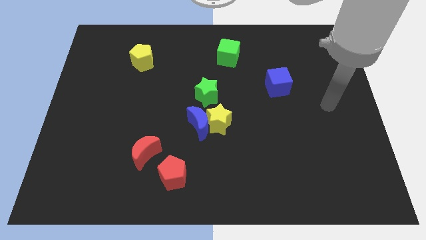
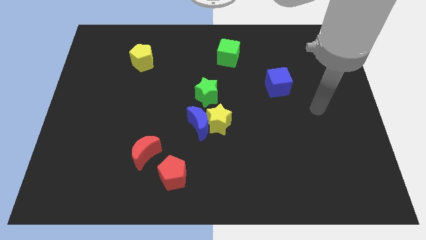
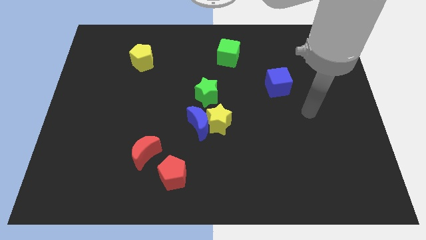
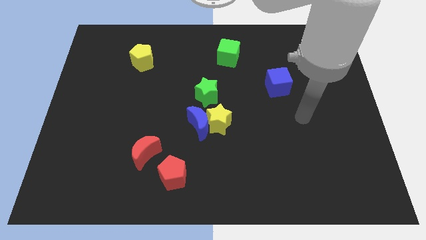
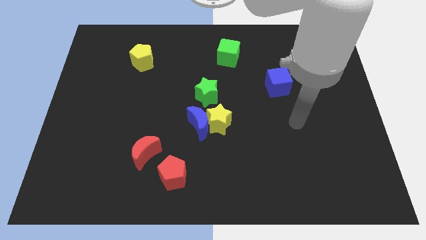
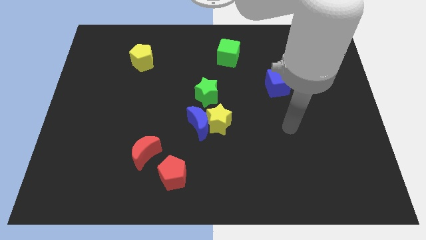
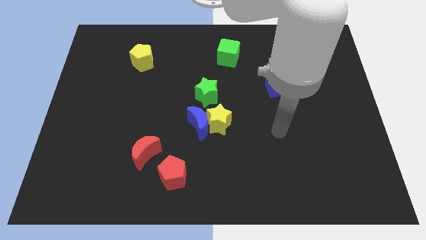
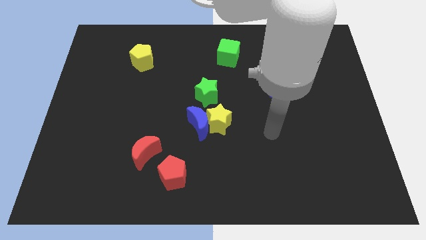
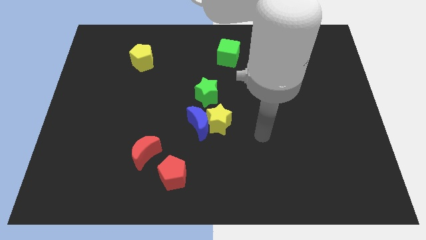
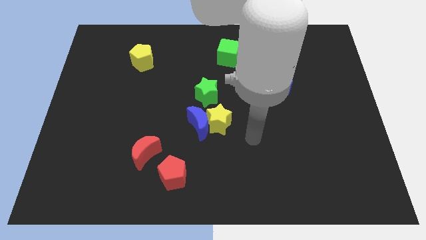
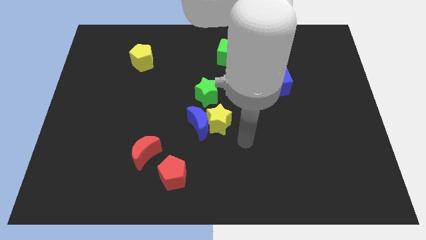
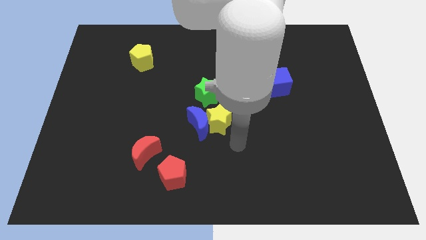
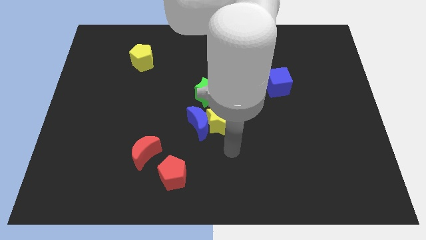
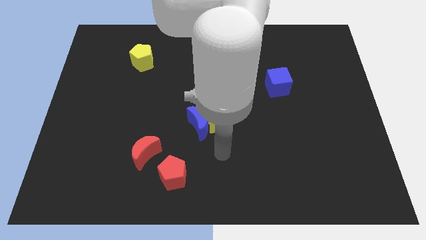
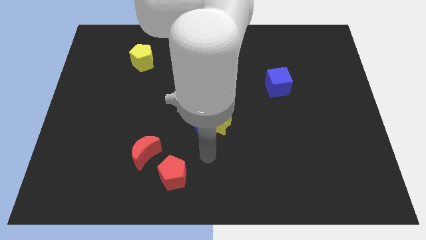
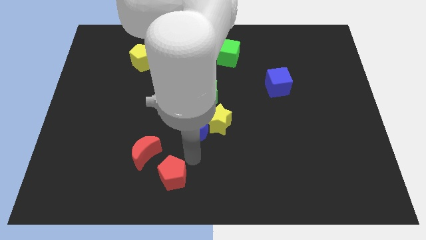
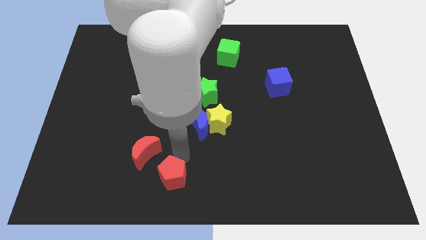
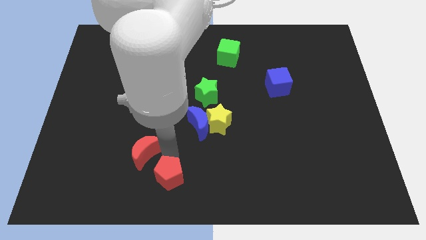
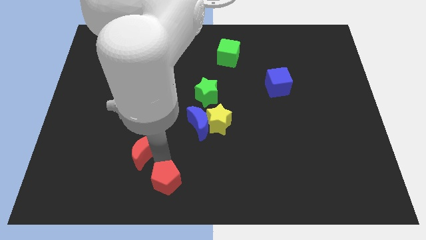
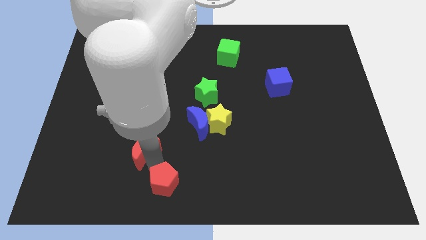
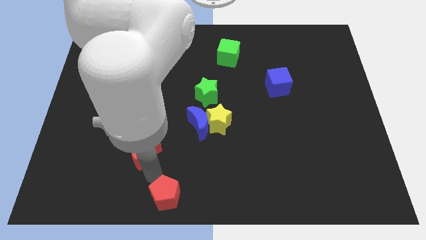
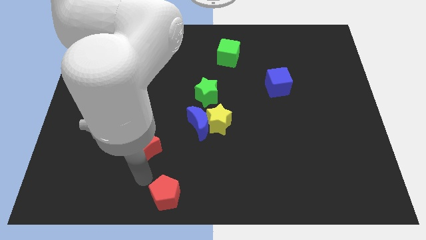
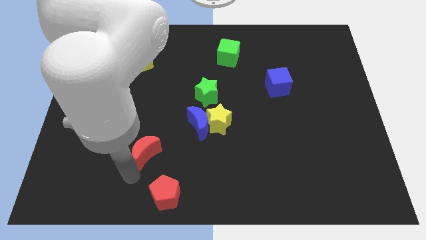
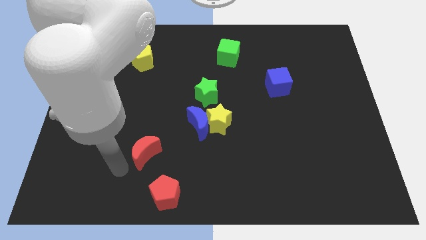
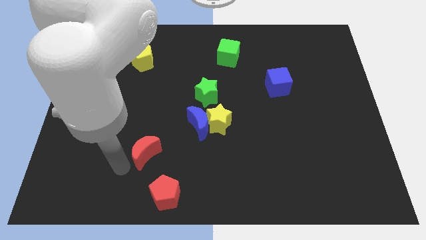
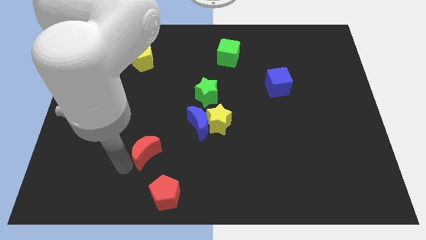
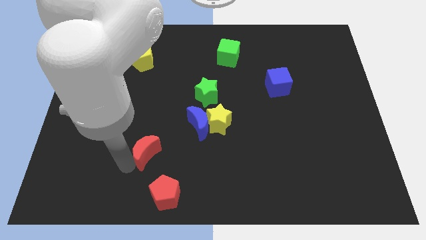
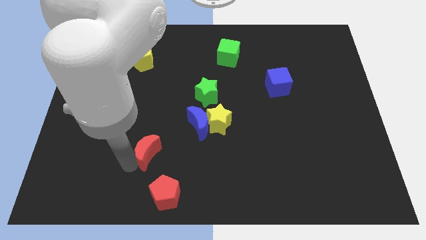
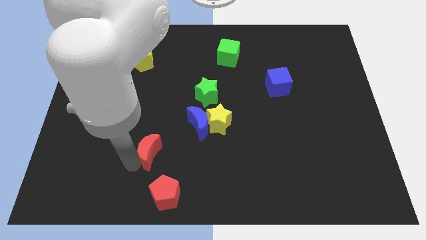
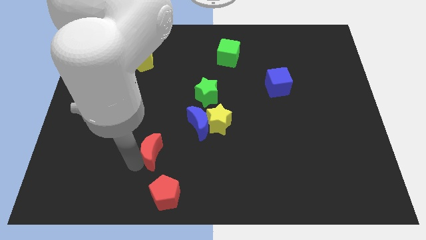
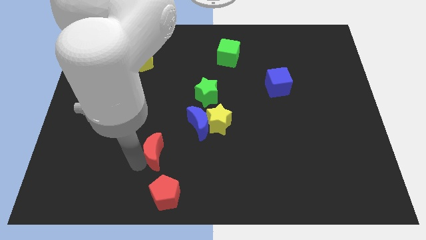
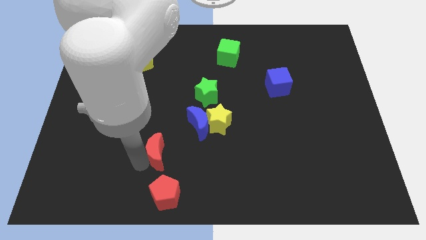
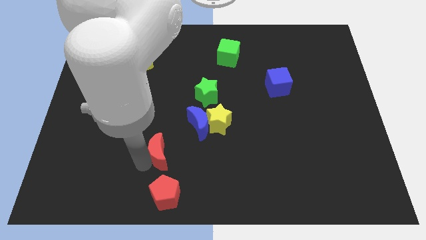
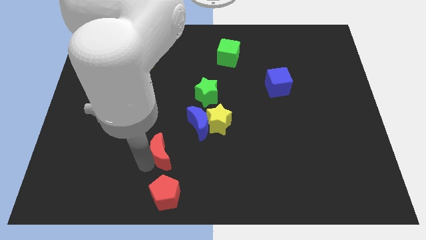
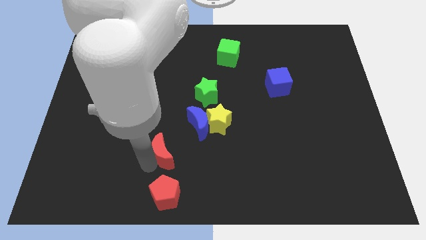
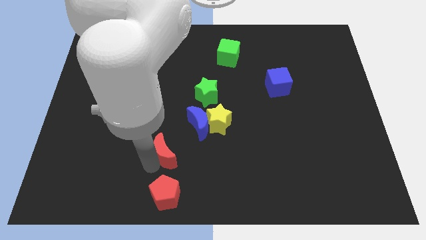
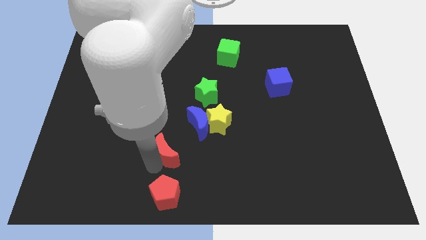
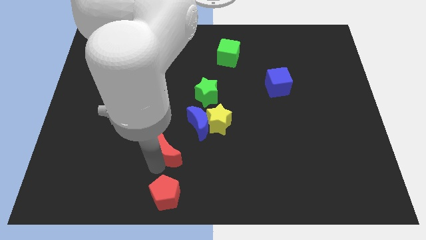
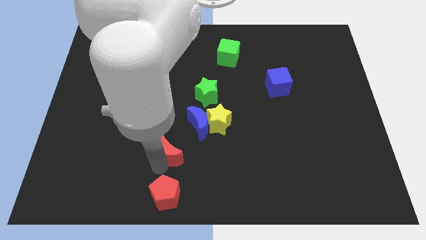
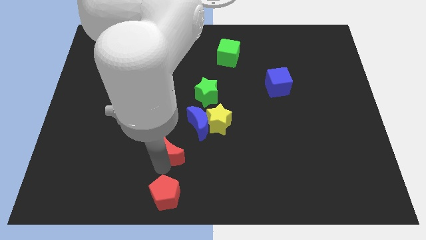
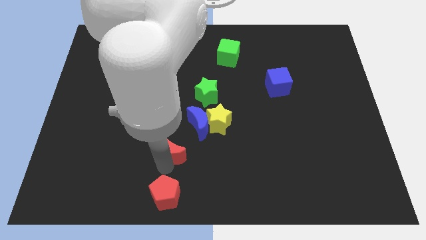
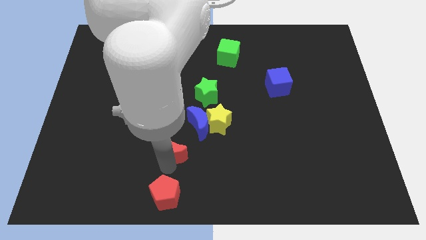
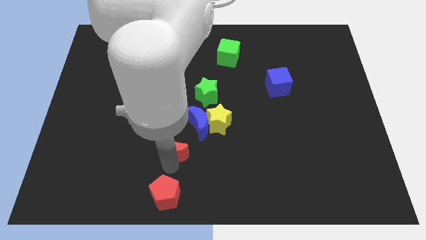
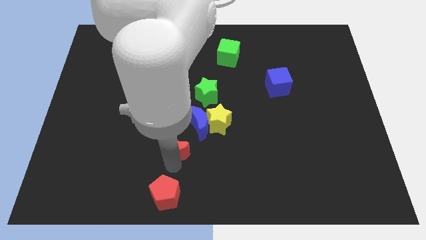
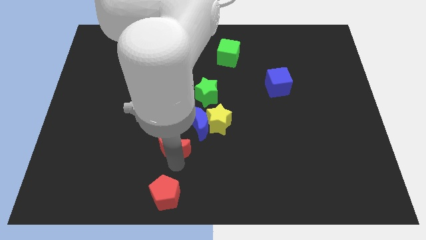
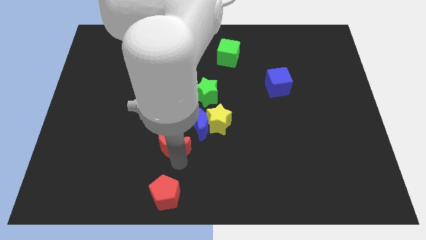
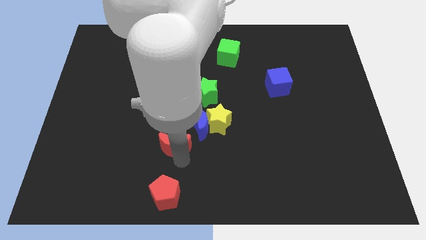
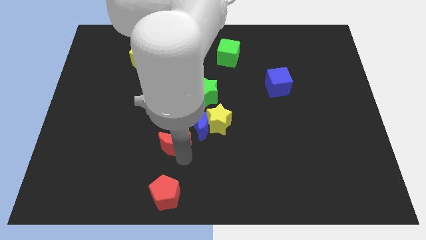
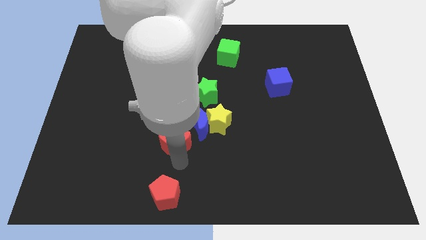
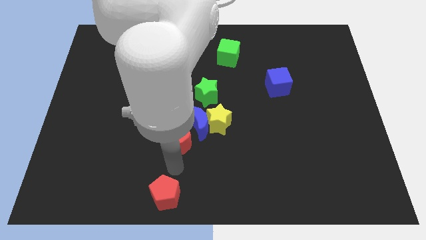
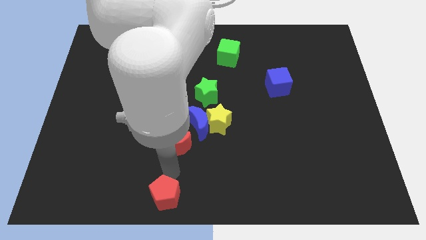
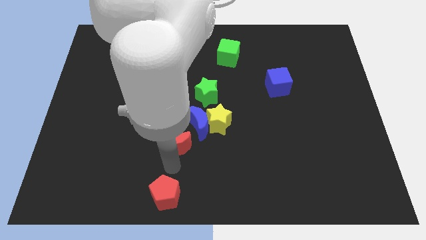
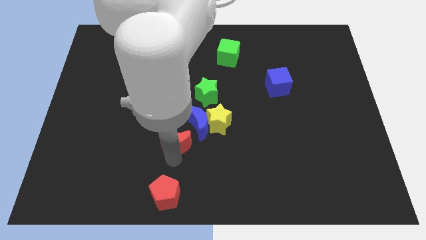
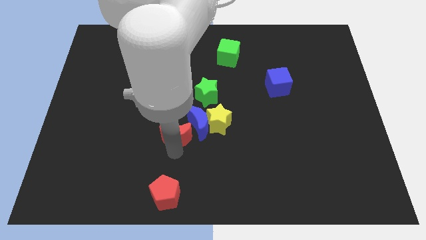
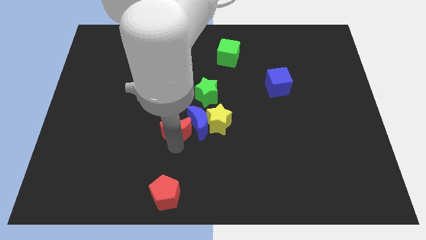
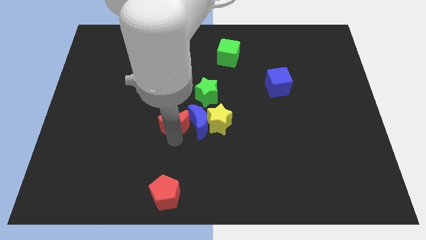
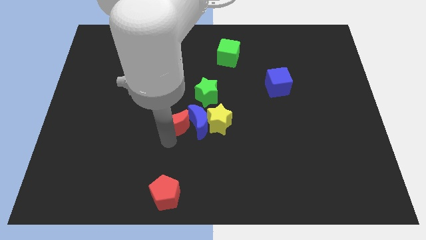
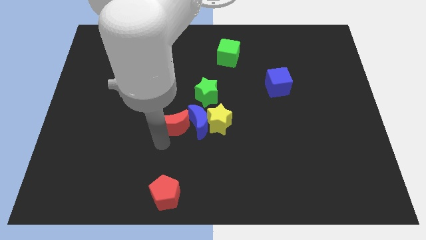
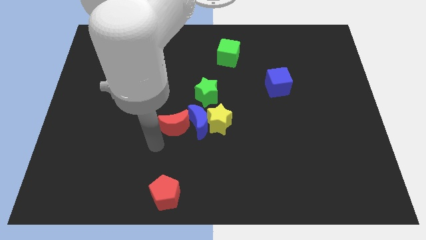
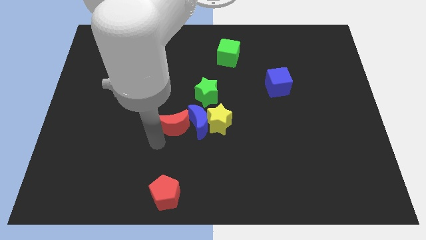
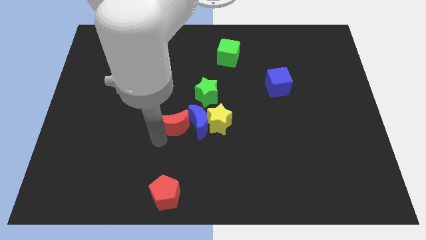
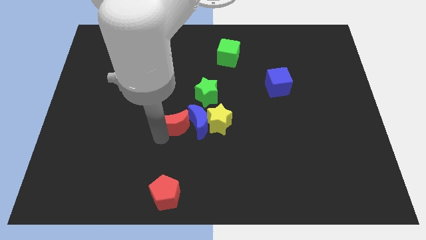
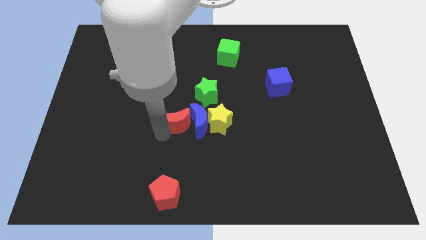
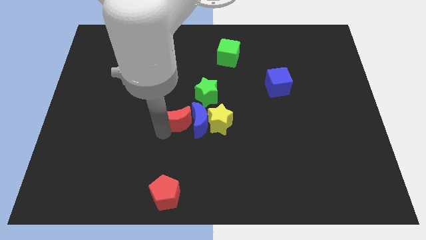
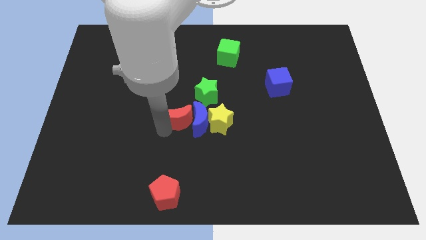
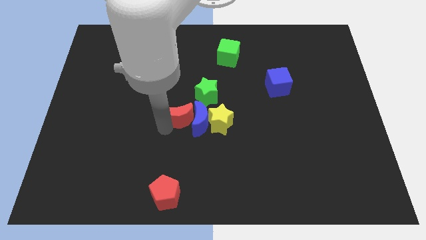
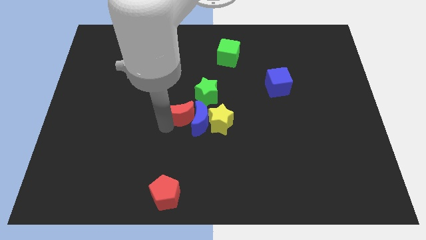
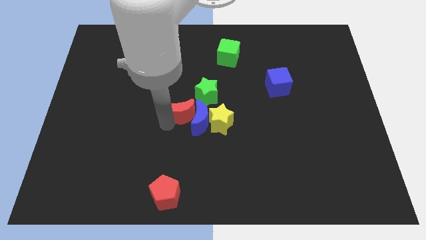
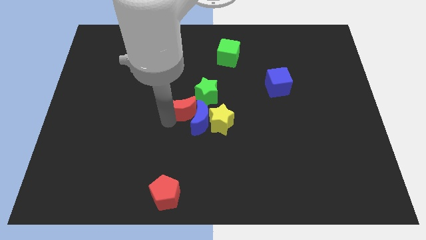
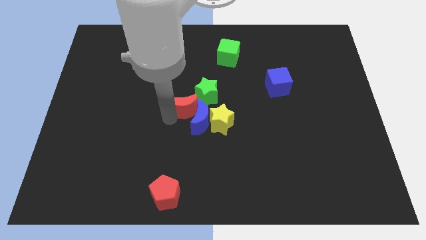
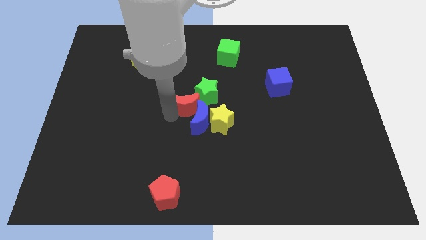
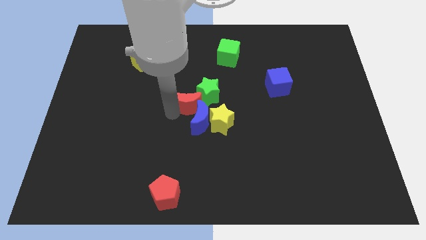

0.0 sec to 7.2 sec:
move the red moon towards the green star

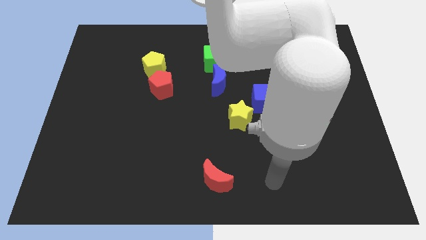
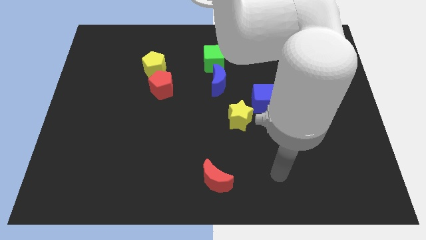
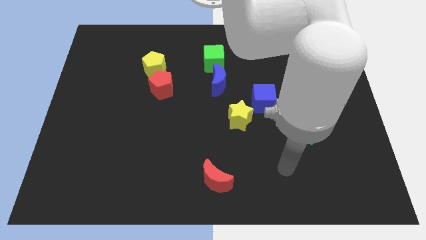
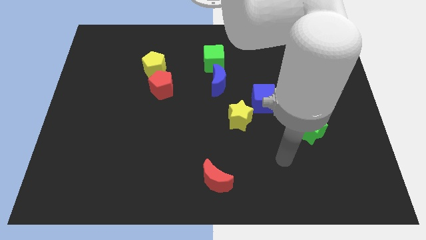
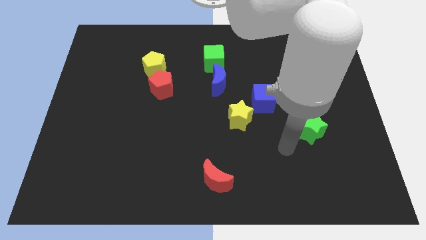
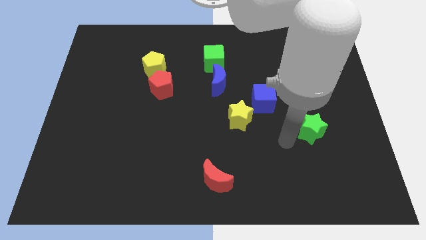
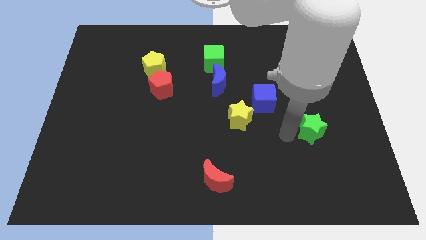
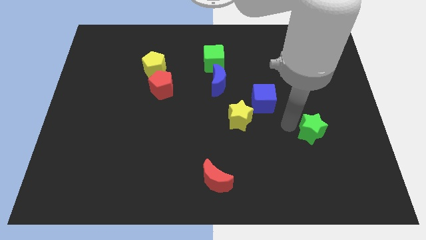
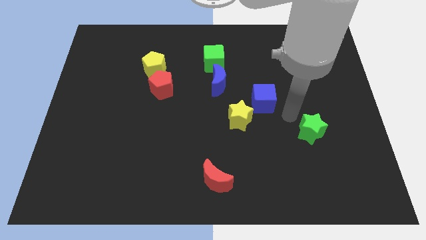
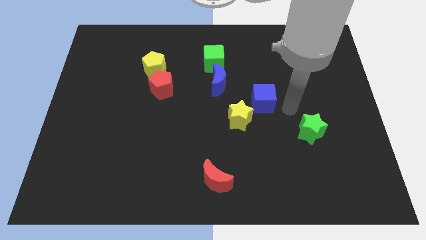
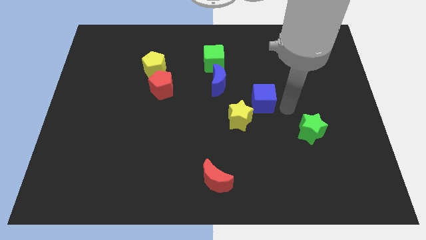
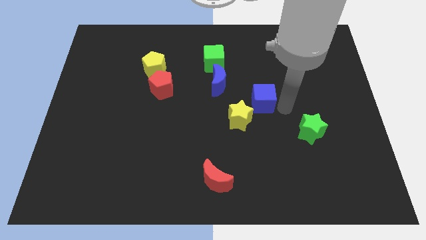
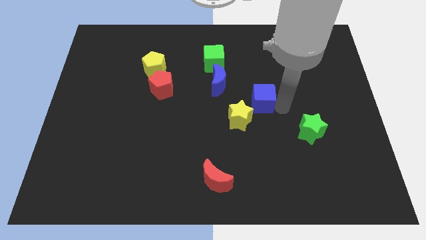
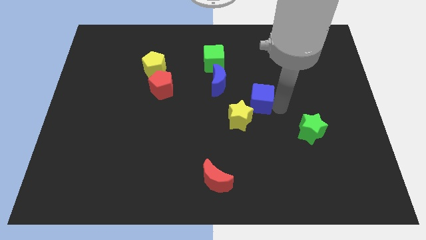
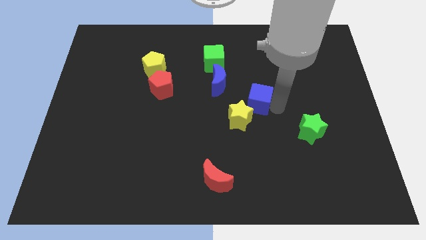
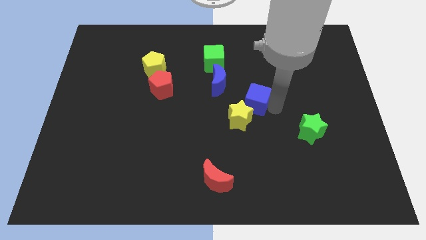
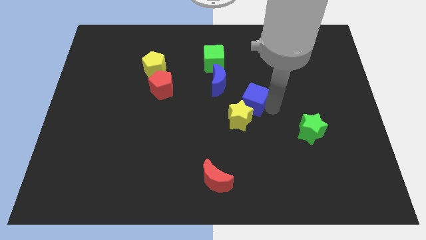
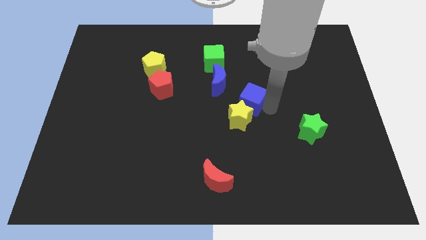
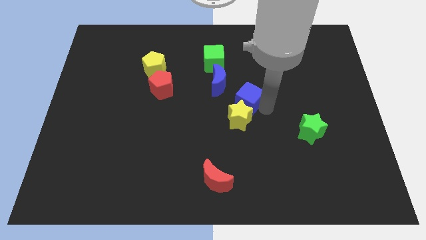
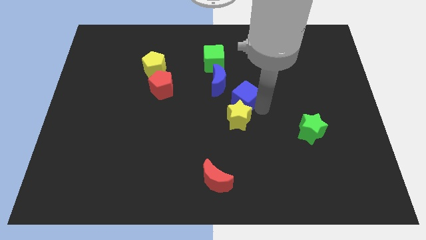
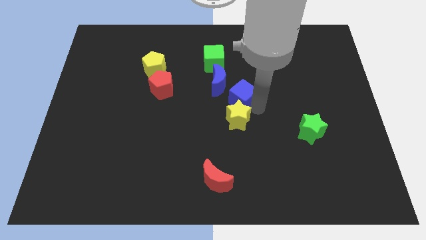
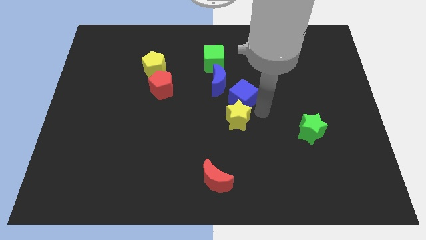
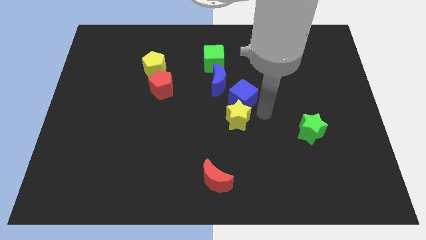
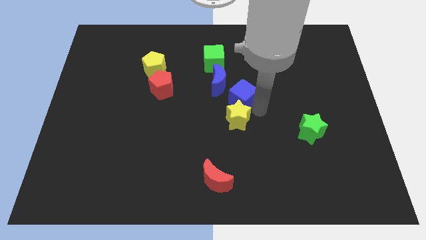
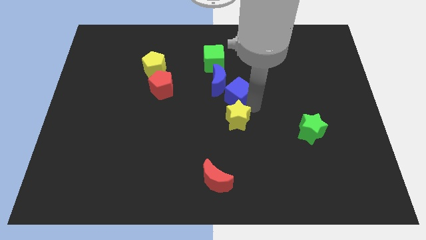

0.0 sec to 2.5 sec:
move the blue cube to the blue moon
